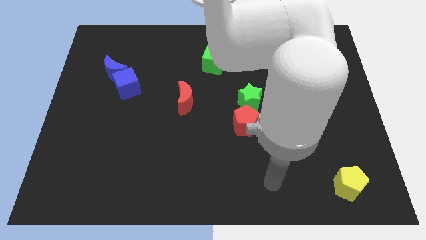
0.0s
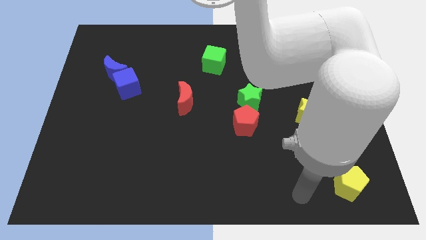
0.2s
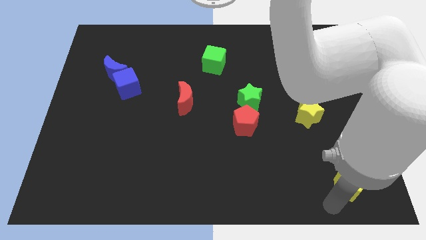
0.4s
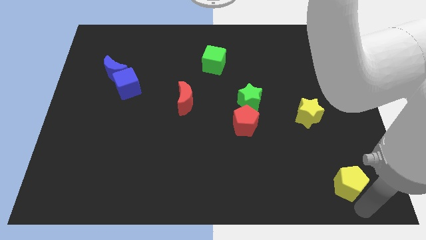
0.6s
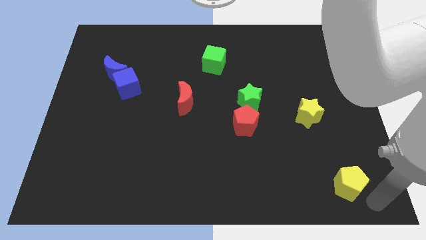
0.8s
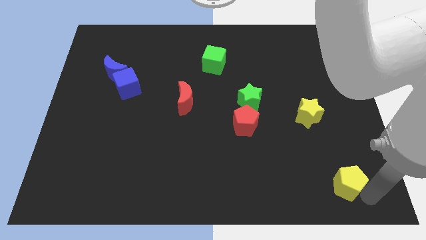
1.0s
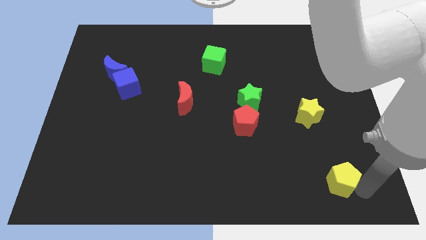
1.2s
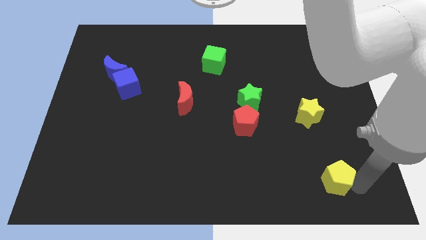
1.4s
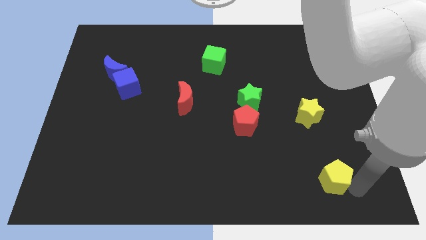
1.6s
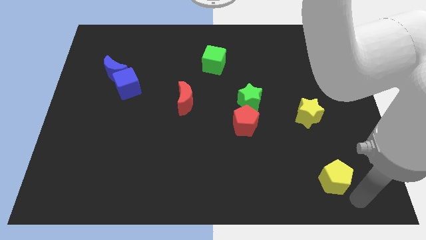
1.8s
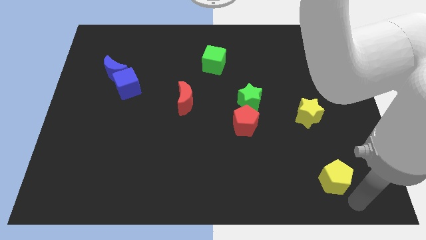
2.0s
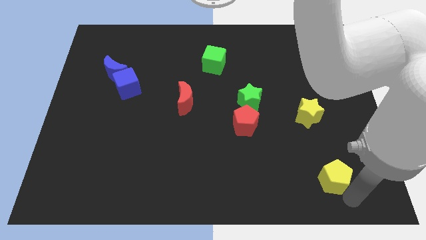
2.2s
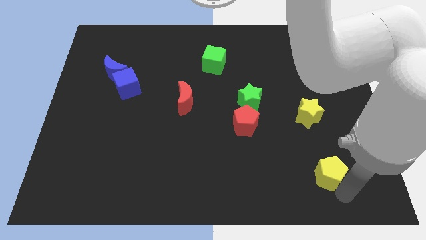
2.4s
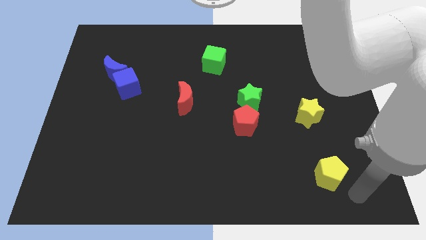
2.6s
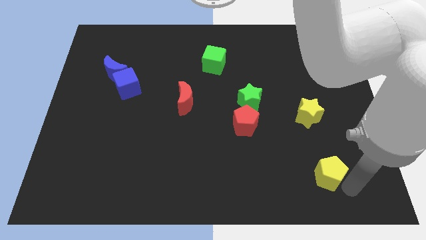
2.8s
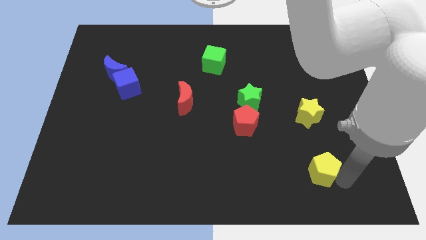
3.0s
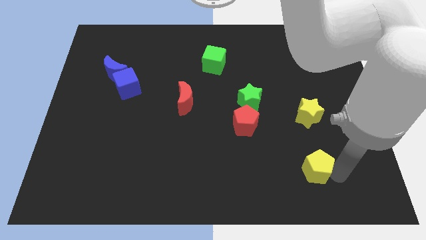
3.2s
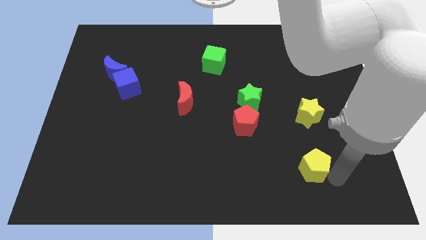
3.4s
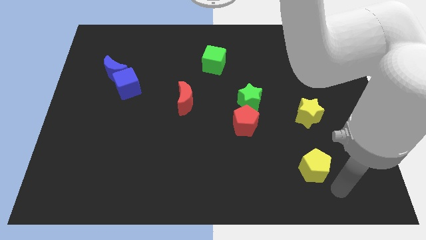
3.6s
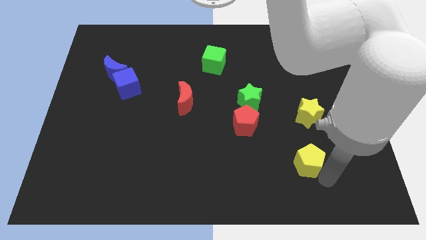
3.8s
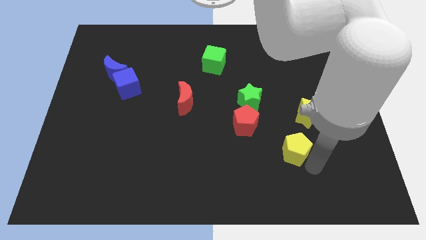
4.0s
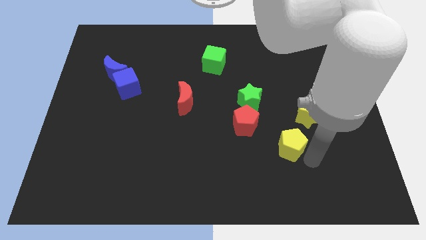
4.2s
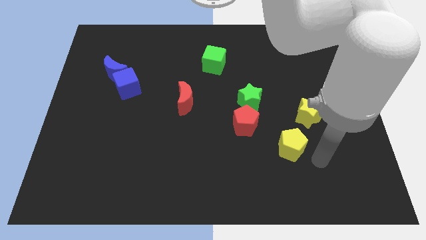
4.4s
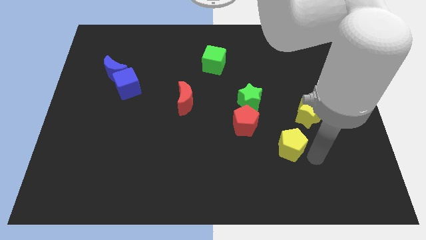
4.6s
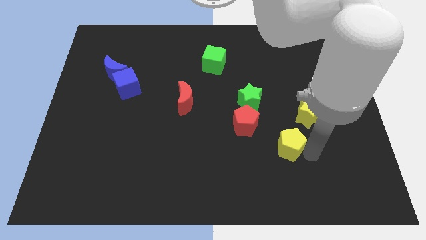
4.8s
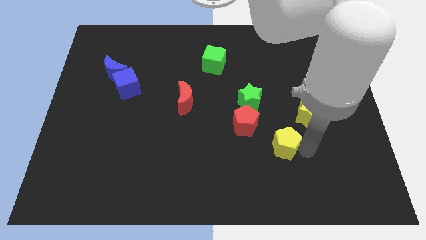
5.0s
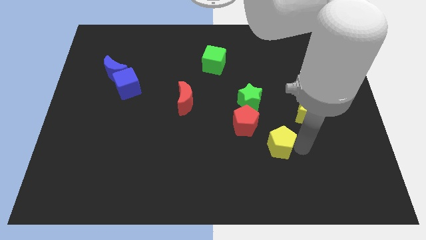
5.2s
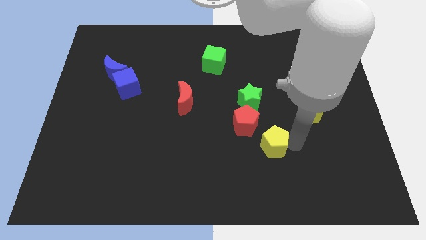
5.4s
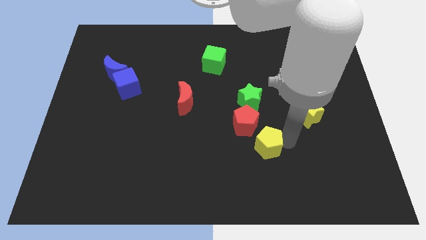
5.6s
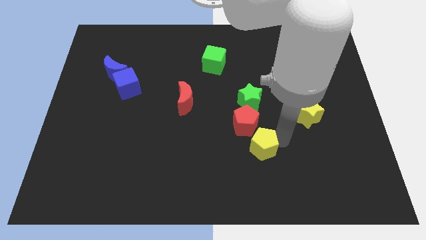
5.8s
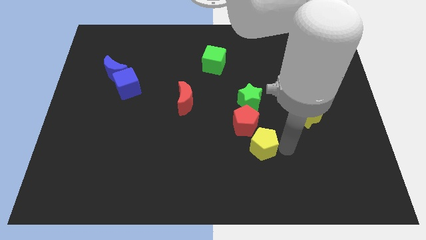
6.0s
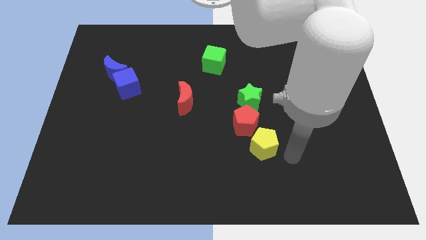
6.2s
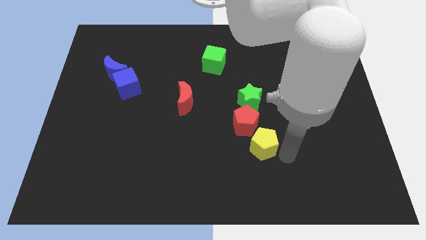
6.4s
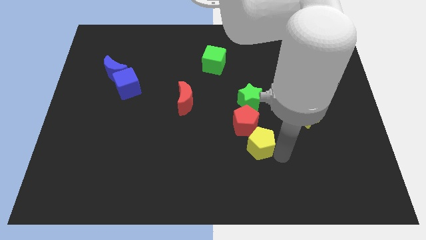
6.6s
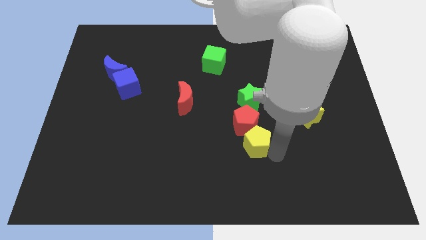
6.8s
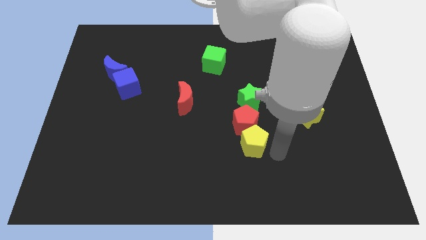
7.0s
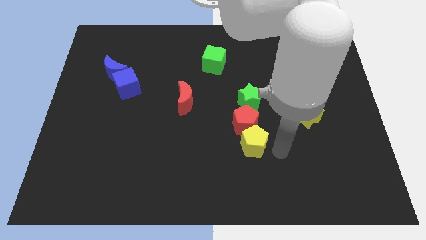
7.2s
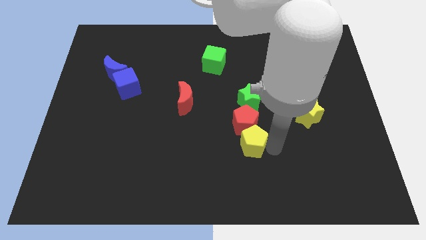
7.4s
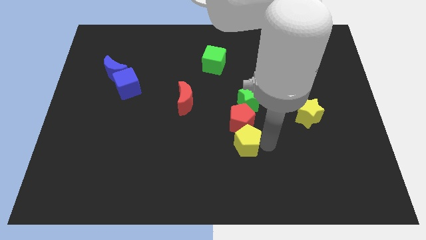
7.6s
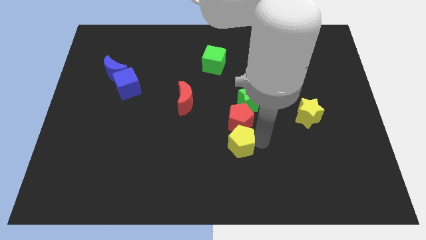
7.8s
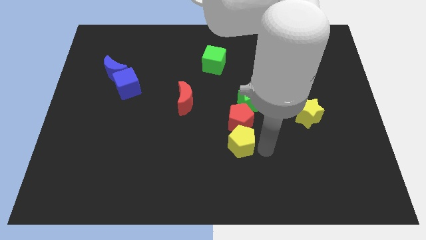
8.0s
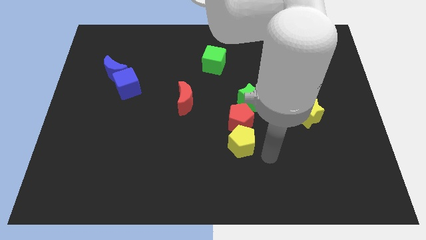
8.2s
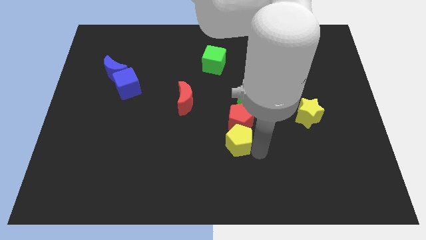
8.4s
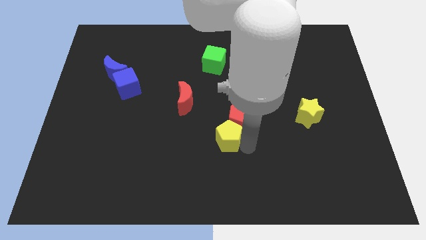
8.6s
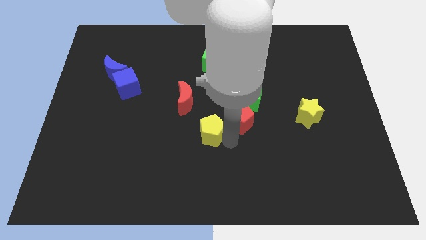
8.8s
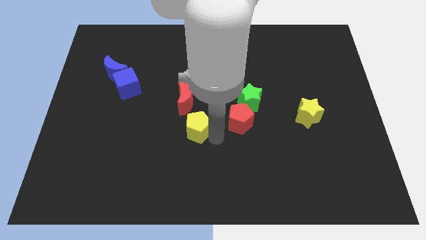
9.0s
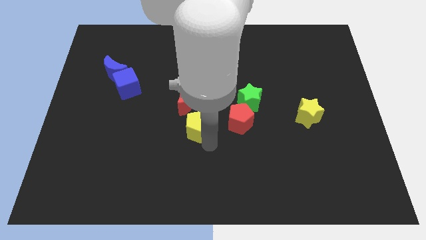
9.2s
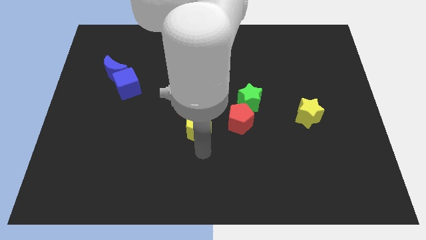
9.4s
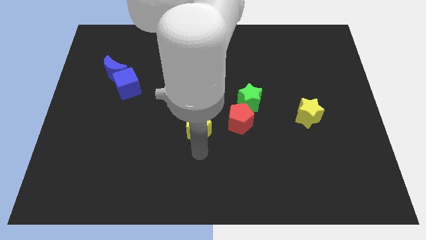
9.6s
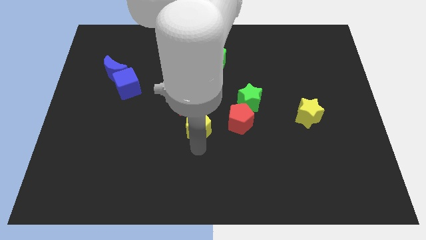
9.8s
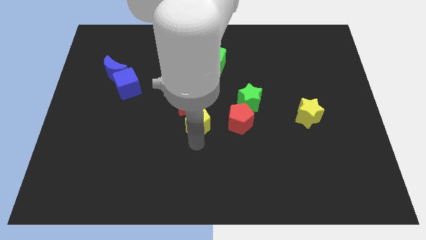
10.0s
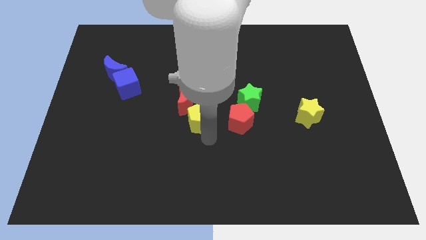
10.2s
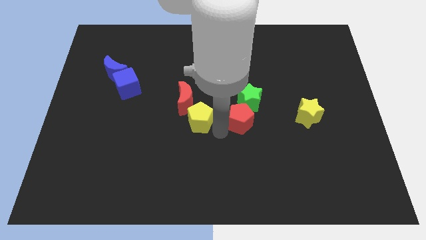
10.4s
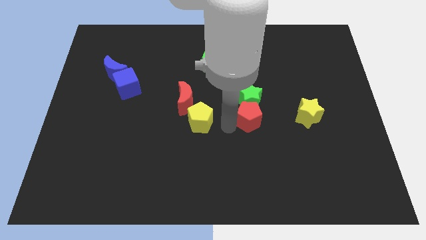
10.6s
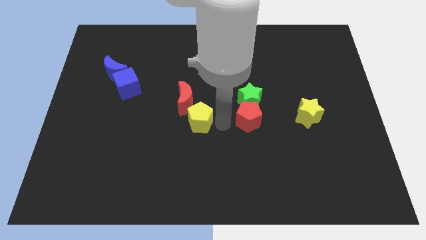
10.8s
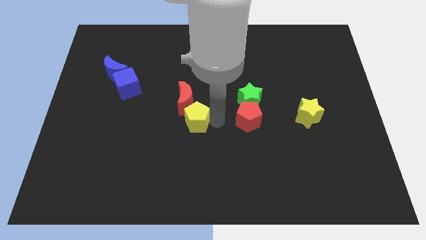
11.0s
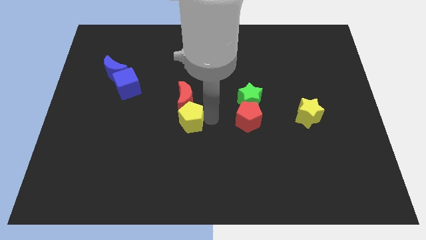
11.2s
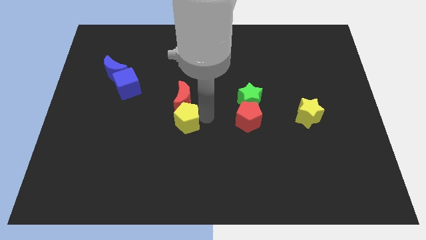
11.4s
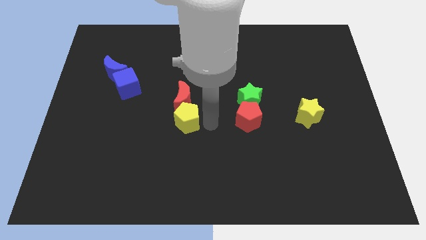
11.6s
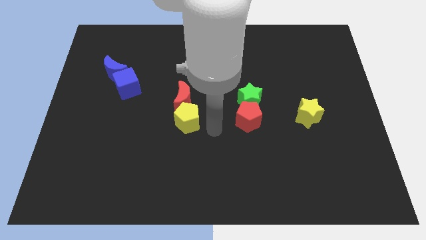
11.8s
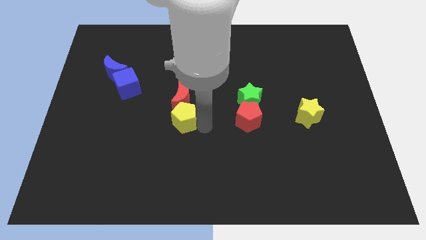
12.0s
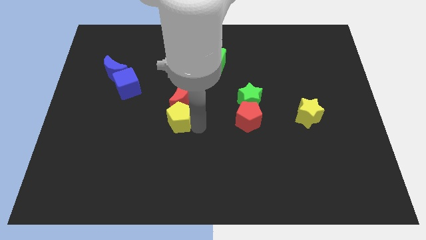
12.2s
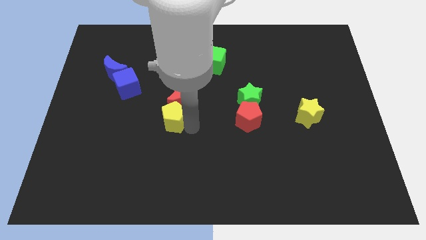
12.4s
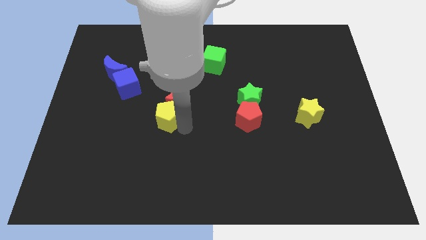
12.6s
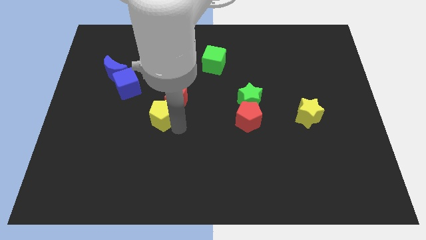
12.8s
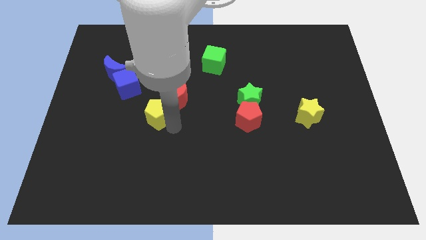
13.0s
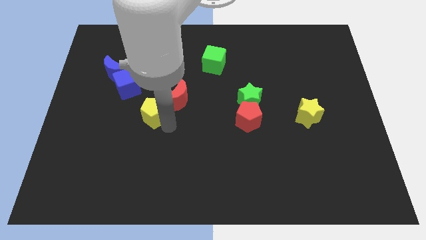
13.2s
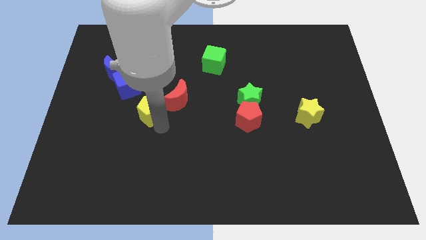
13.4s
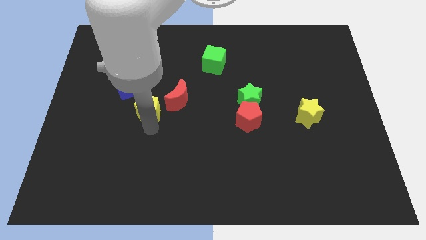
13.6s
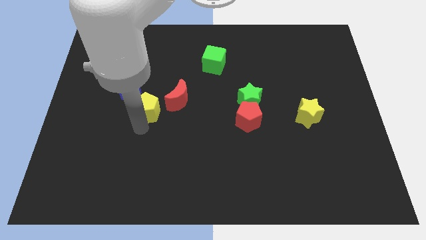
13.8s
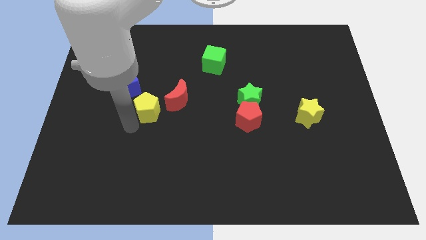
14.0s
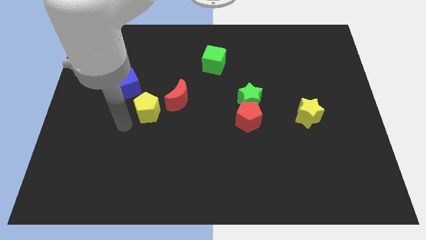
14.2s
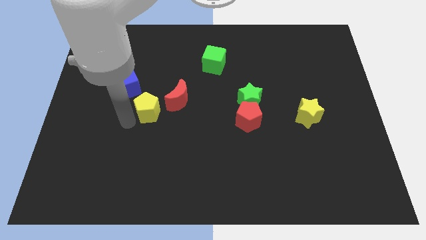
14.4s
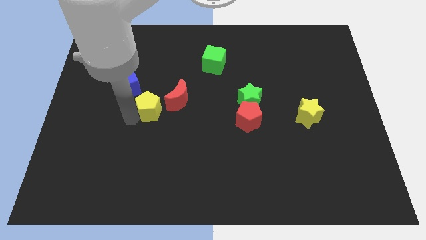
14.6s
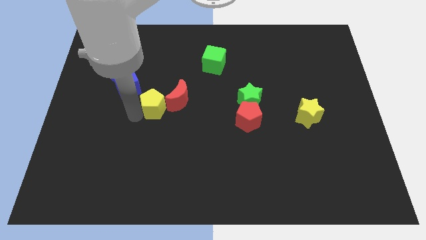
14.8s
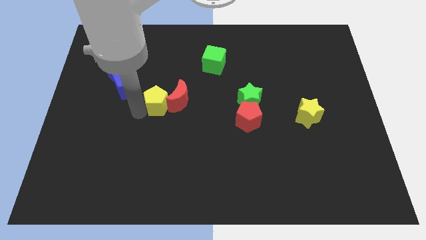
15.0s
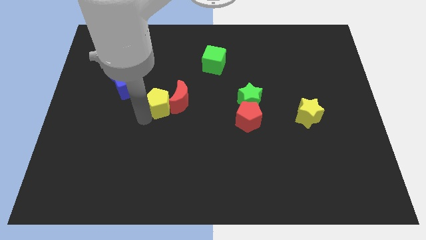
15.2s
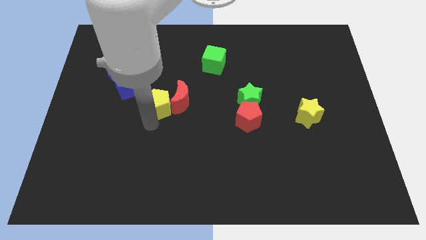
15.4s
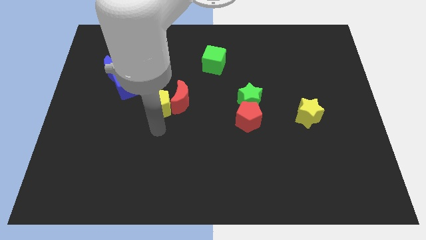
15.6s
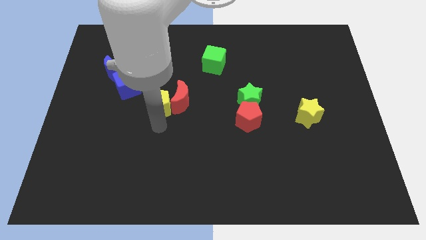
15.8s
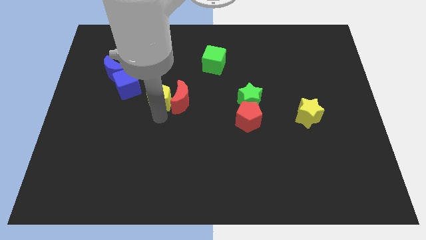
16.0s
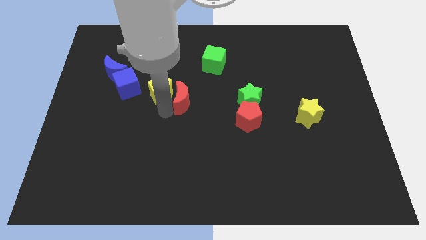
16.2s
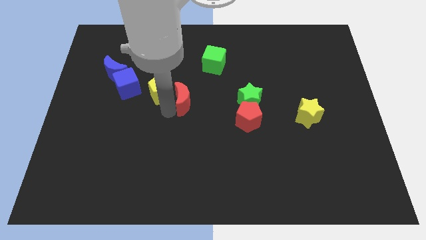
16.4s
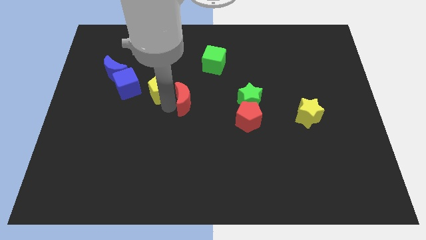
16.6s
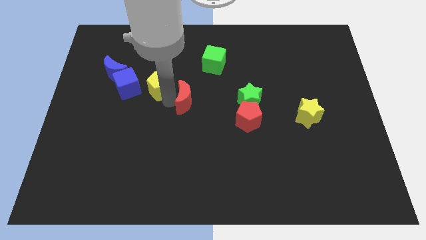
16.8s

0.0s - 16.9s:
slide the yellow pentagon right of the blue moon
